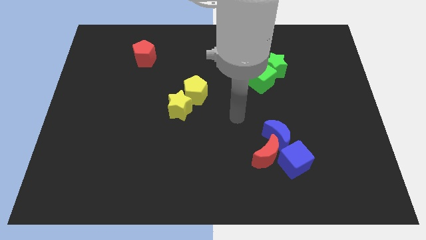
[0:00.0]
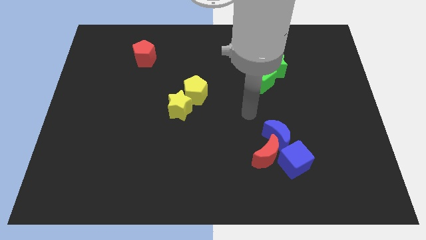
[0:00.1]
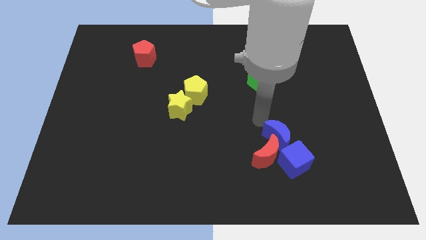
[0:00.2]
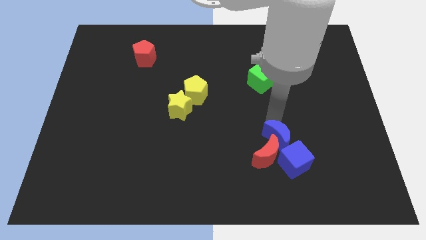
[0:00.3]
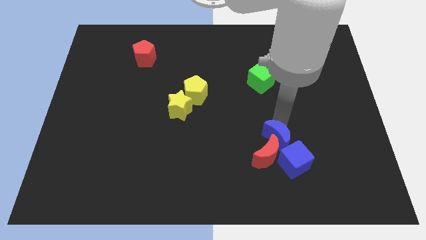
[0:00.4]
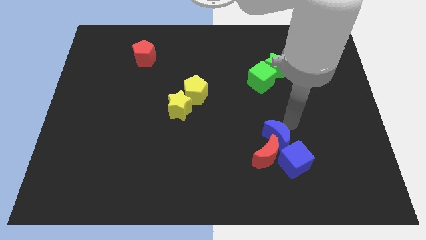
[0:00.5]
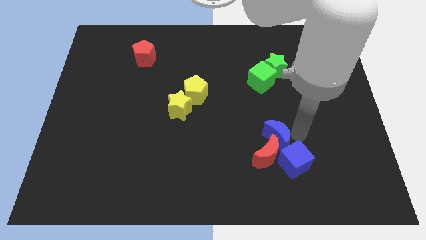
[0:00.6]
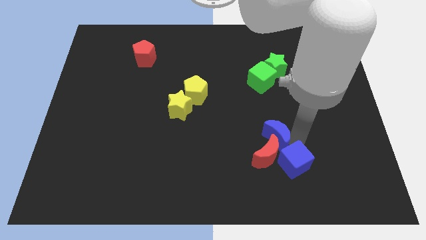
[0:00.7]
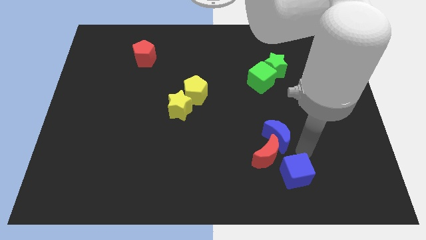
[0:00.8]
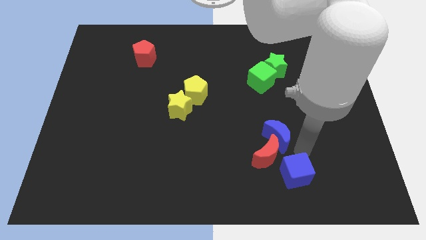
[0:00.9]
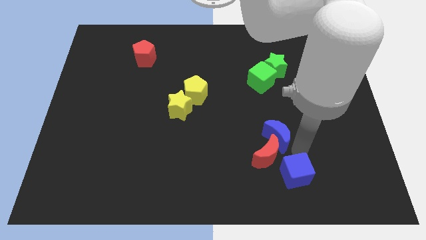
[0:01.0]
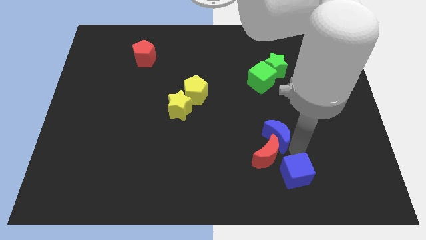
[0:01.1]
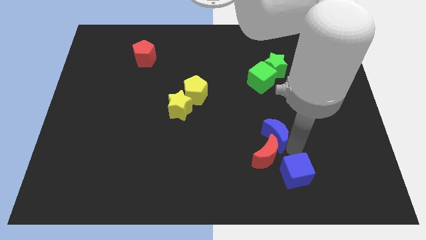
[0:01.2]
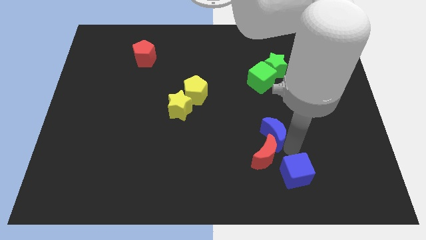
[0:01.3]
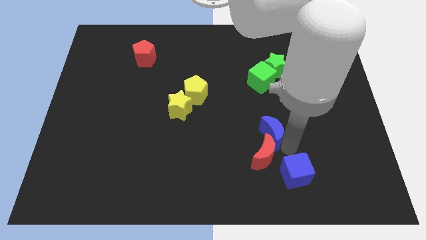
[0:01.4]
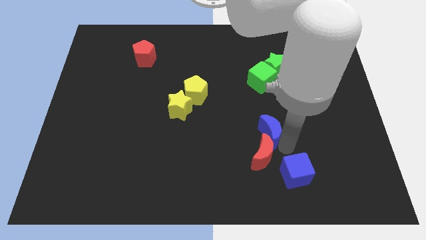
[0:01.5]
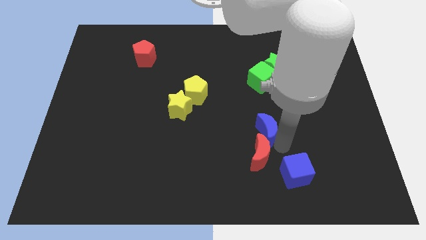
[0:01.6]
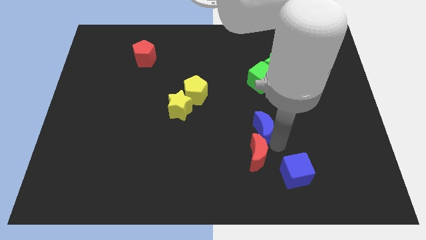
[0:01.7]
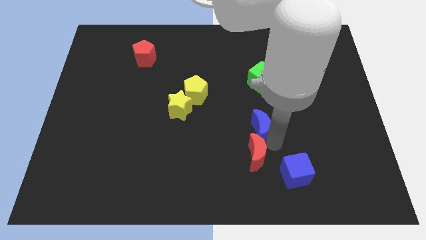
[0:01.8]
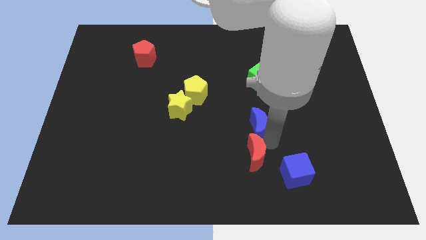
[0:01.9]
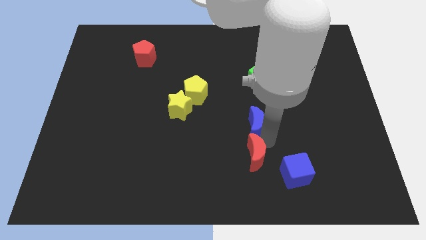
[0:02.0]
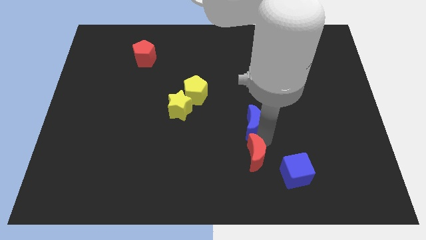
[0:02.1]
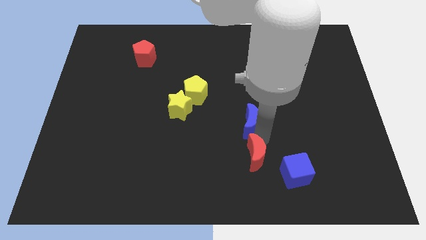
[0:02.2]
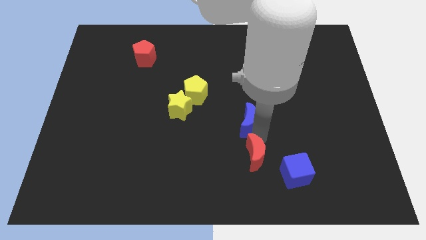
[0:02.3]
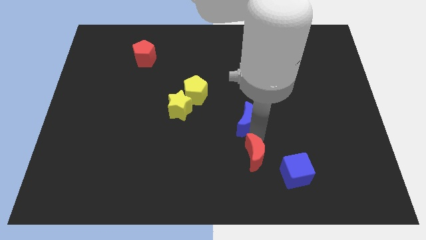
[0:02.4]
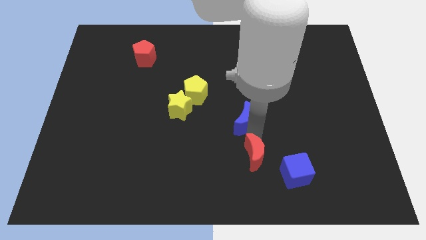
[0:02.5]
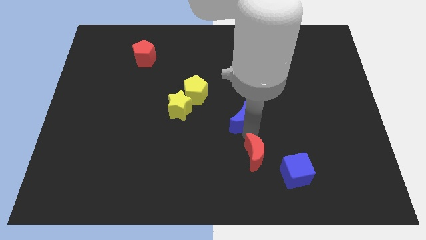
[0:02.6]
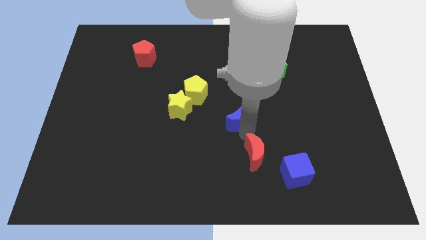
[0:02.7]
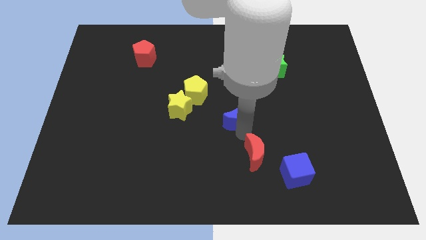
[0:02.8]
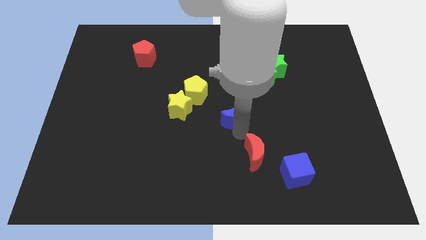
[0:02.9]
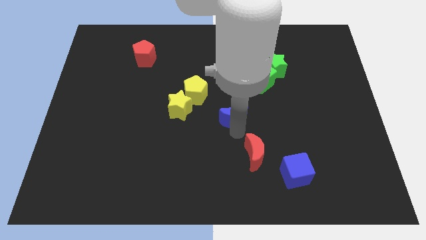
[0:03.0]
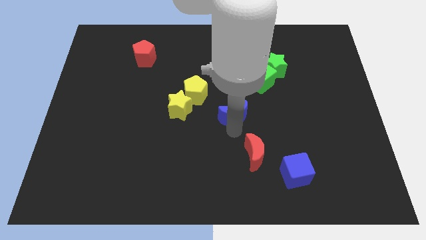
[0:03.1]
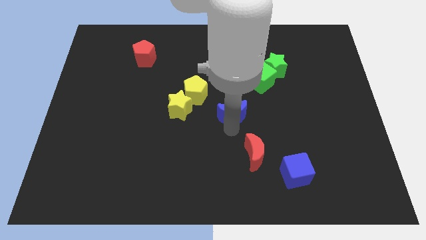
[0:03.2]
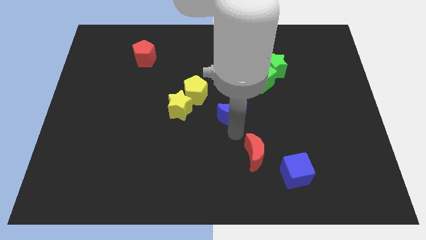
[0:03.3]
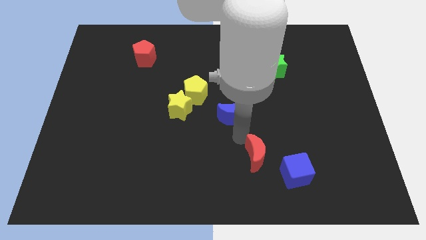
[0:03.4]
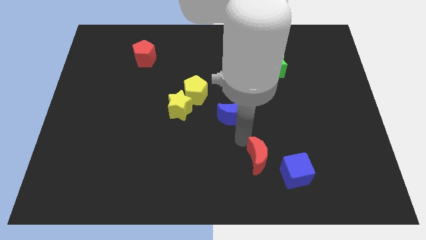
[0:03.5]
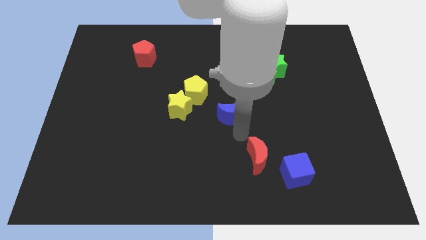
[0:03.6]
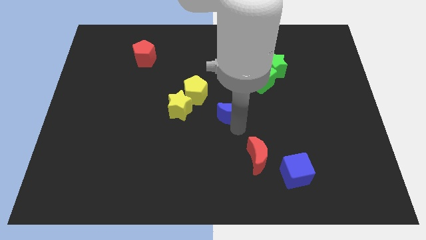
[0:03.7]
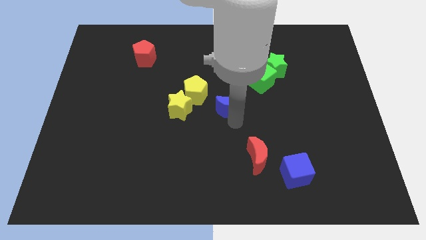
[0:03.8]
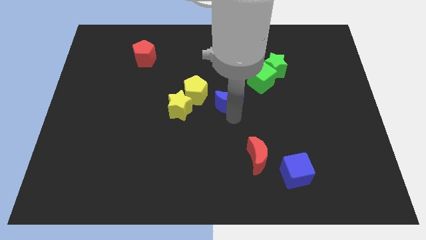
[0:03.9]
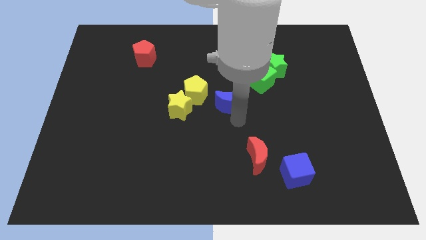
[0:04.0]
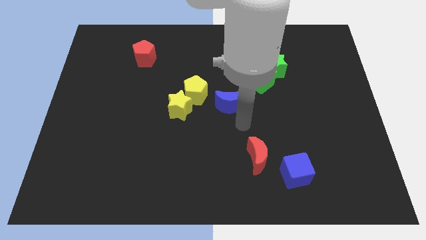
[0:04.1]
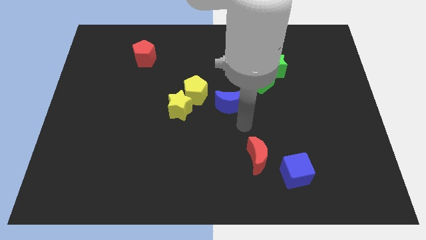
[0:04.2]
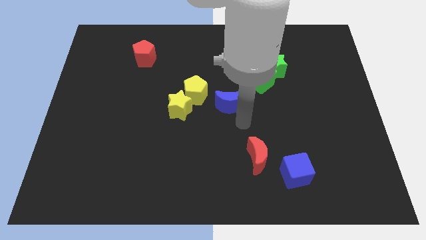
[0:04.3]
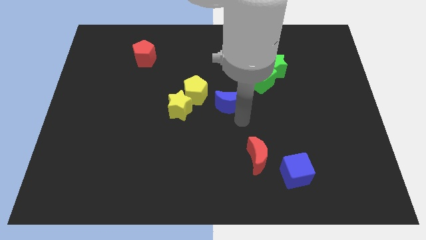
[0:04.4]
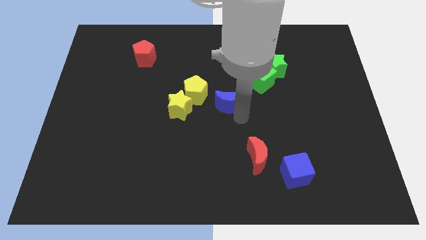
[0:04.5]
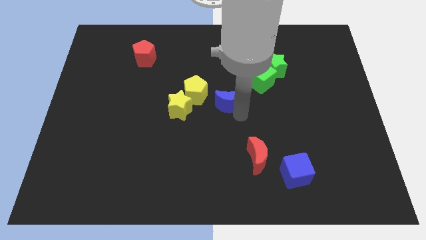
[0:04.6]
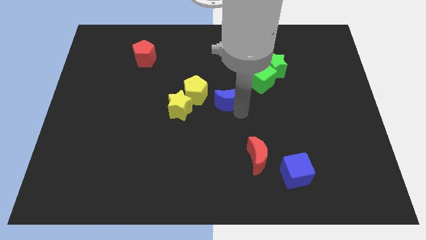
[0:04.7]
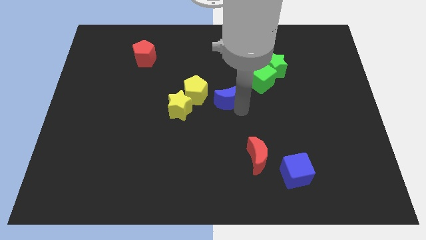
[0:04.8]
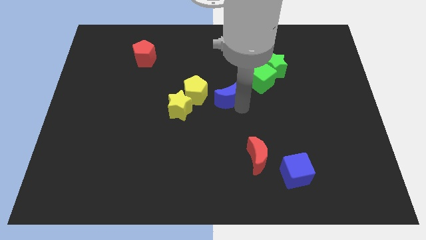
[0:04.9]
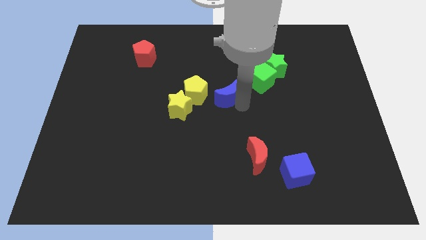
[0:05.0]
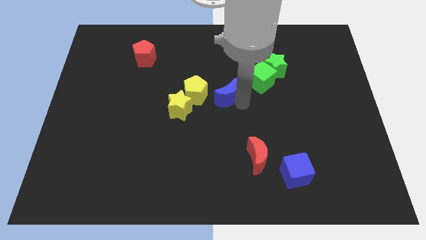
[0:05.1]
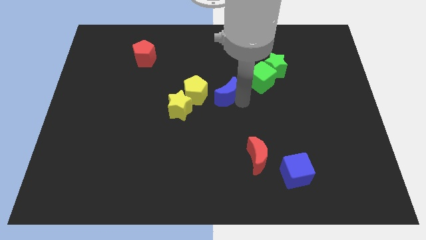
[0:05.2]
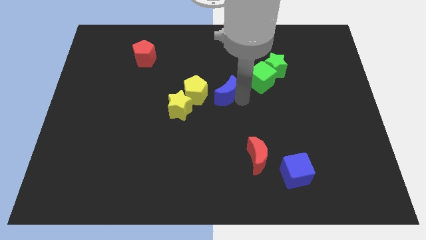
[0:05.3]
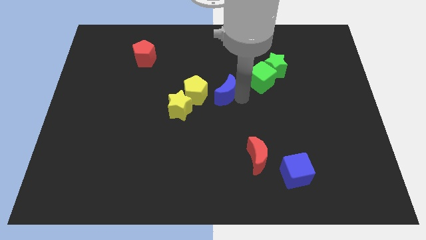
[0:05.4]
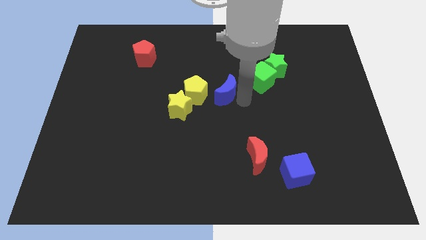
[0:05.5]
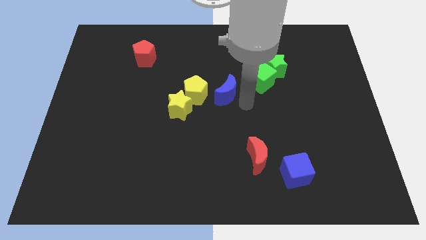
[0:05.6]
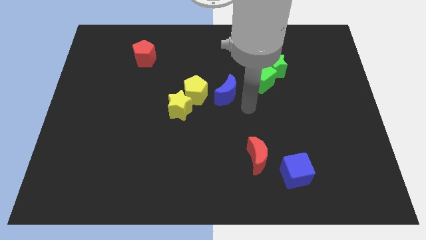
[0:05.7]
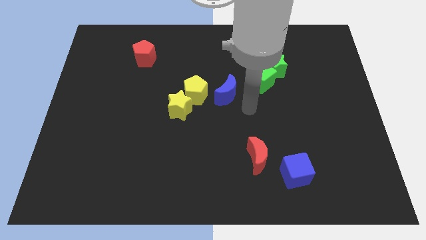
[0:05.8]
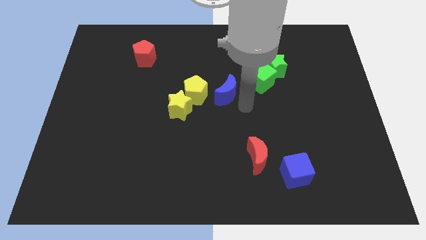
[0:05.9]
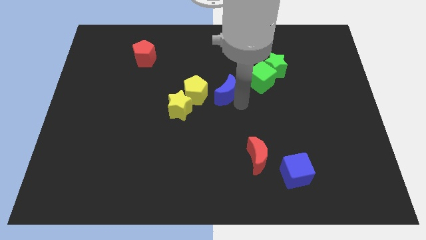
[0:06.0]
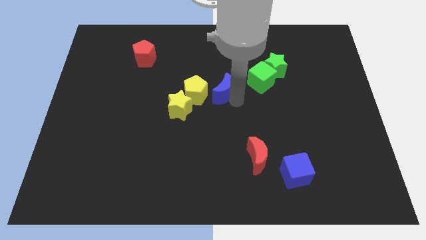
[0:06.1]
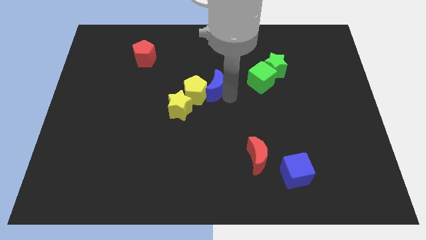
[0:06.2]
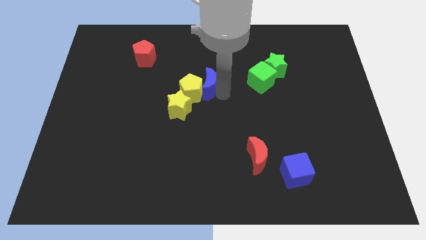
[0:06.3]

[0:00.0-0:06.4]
slide the blue moon diagonally up and left

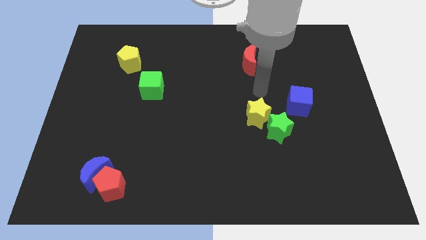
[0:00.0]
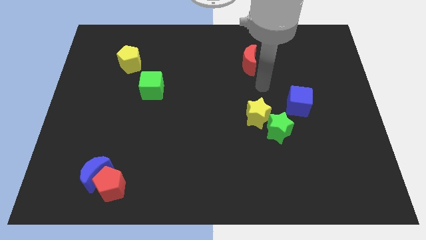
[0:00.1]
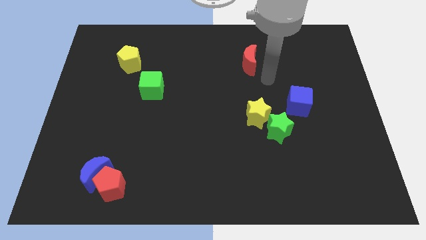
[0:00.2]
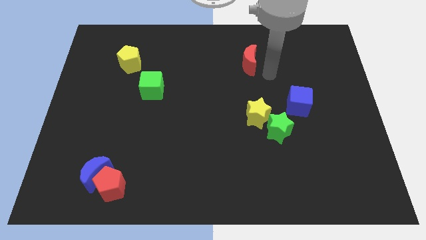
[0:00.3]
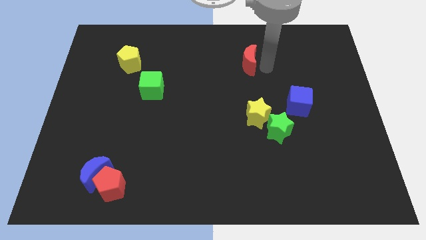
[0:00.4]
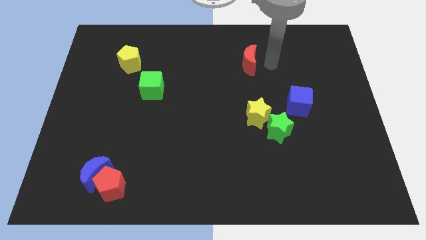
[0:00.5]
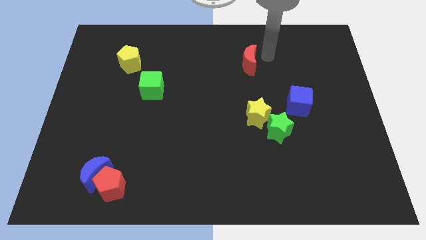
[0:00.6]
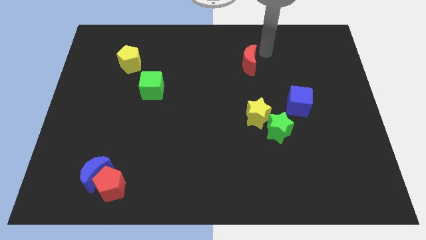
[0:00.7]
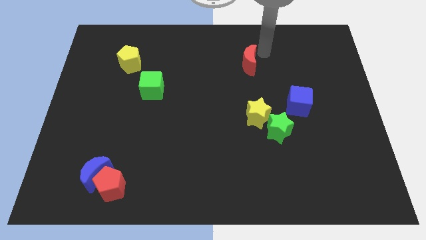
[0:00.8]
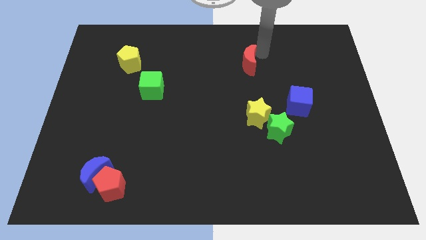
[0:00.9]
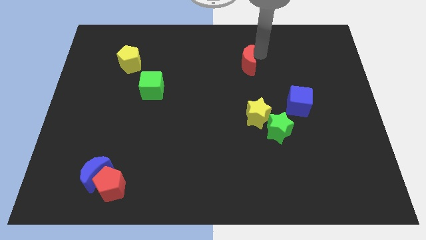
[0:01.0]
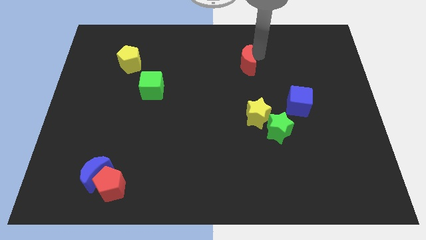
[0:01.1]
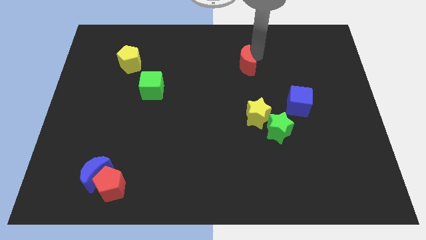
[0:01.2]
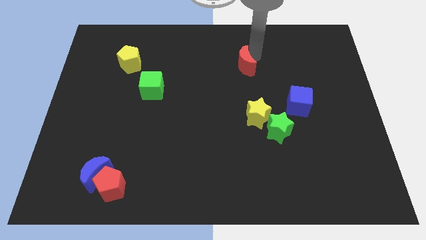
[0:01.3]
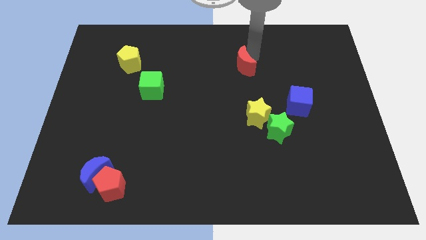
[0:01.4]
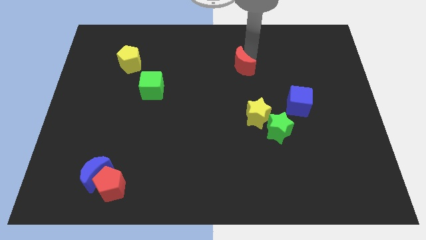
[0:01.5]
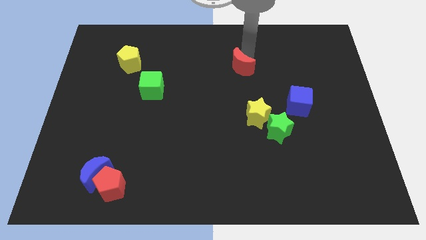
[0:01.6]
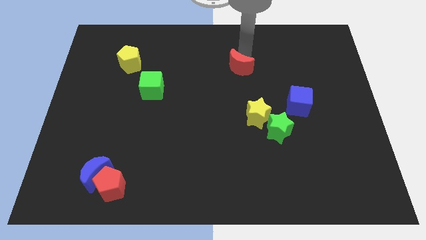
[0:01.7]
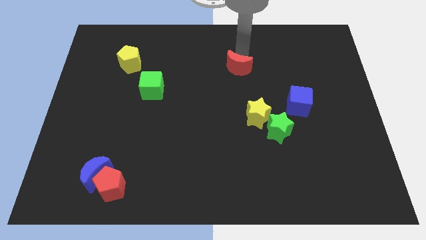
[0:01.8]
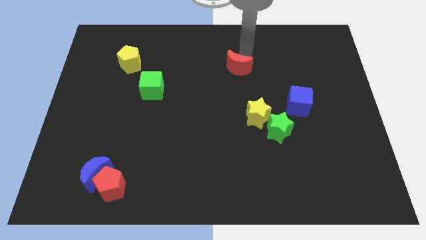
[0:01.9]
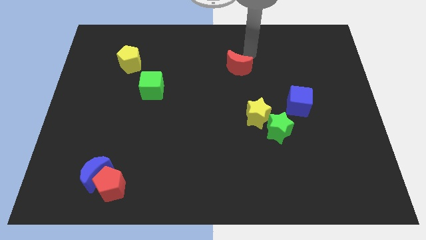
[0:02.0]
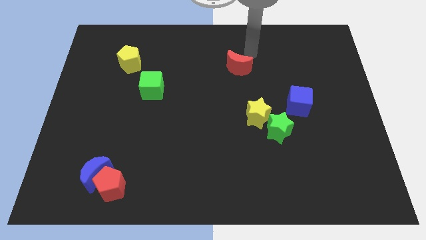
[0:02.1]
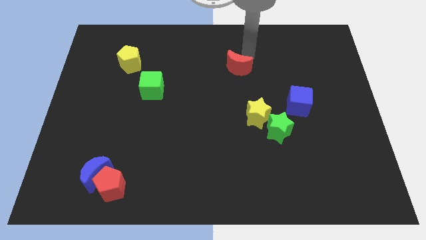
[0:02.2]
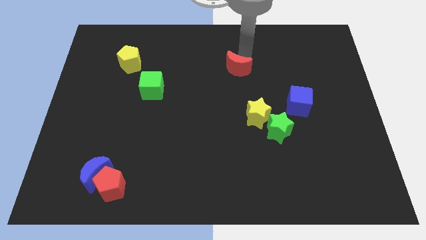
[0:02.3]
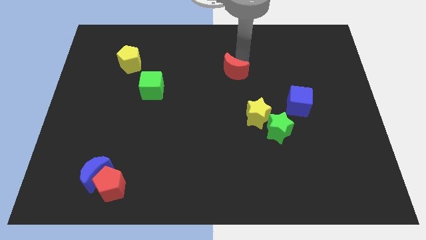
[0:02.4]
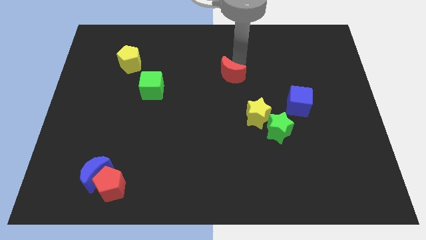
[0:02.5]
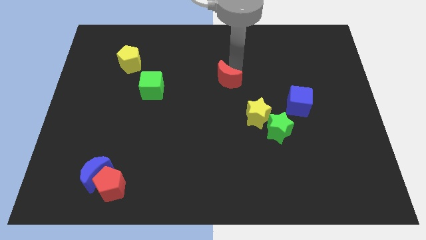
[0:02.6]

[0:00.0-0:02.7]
slide the red moon down and then to the left slightly
